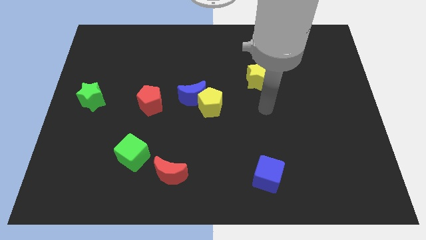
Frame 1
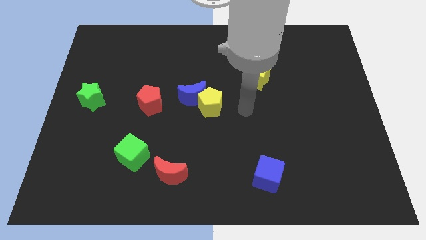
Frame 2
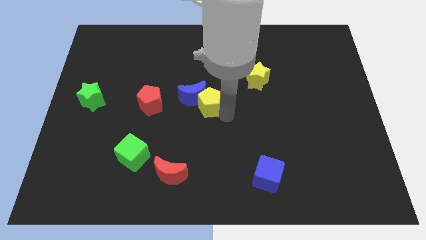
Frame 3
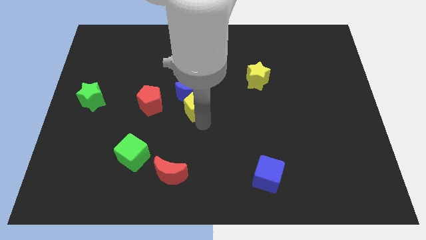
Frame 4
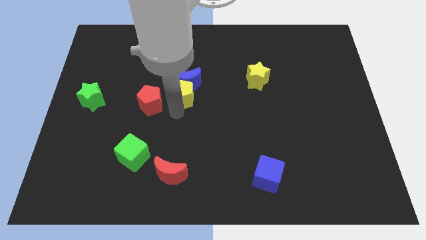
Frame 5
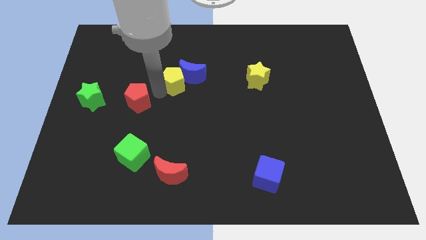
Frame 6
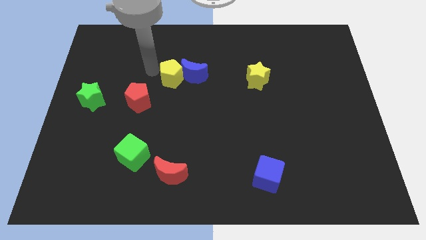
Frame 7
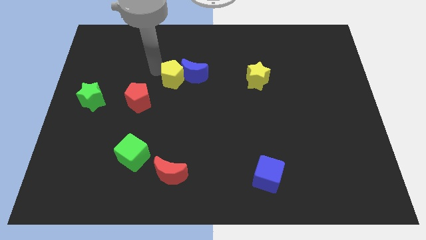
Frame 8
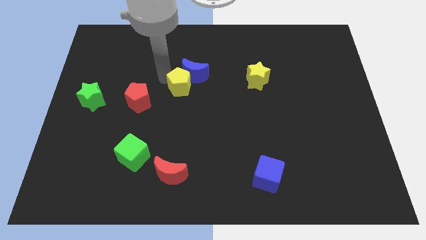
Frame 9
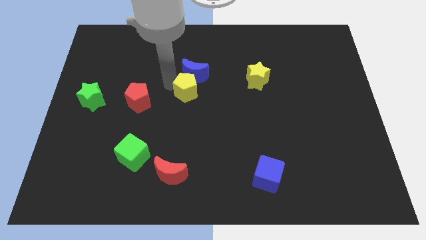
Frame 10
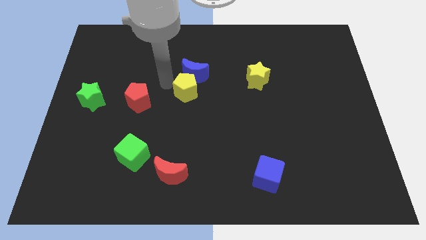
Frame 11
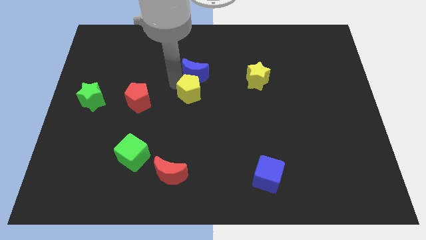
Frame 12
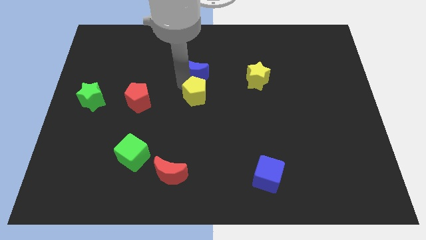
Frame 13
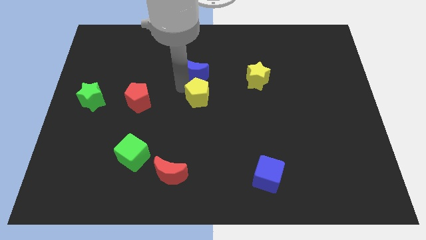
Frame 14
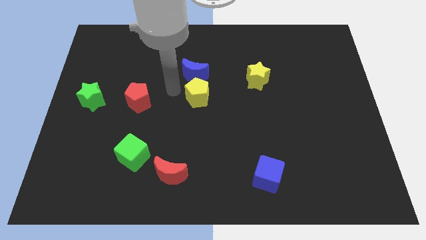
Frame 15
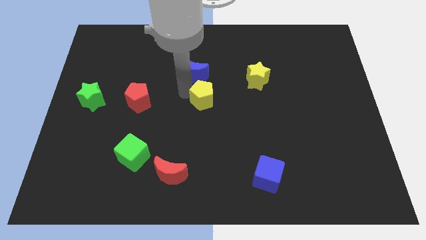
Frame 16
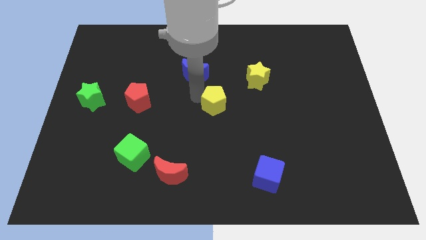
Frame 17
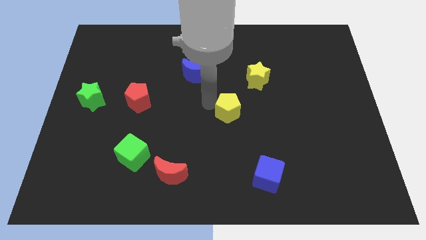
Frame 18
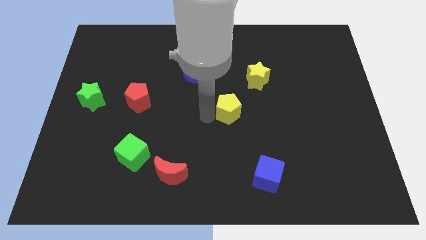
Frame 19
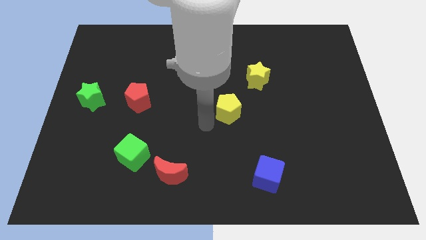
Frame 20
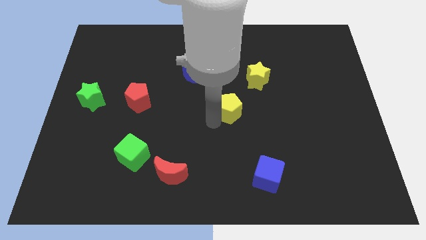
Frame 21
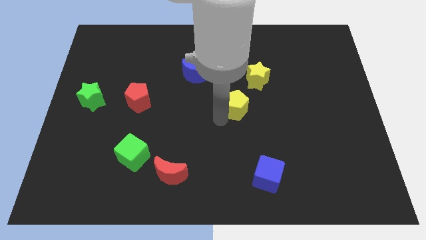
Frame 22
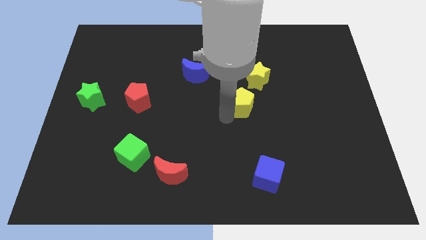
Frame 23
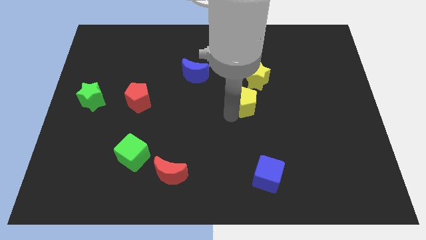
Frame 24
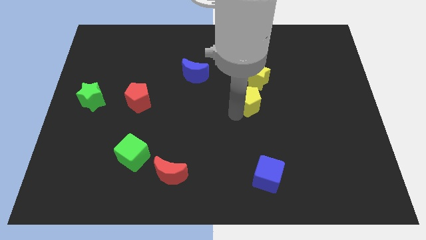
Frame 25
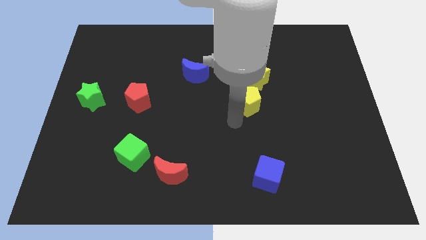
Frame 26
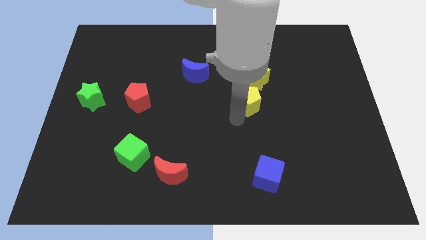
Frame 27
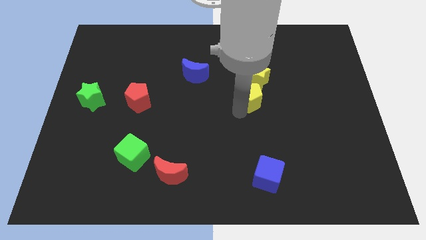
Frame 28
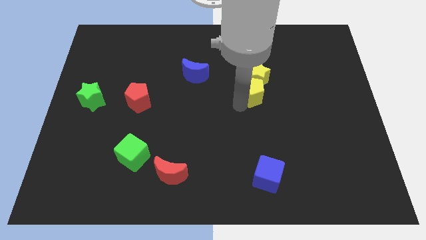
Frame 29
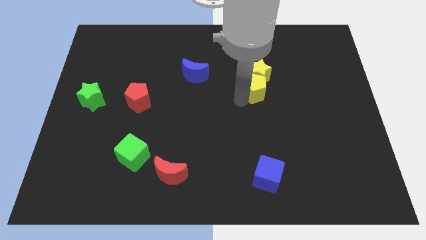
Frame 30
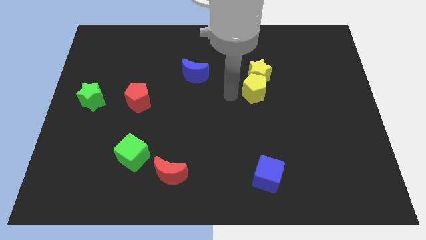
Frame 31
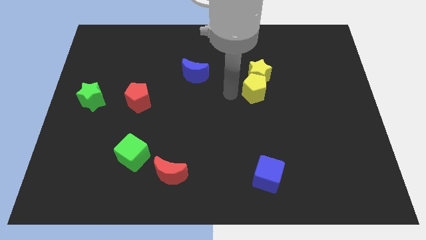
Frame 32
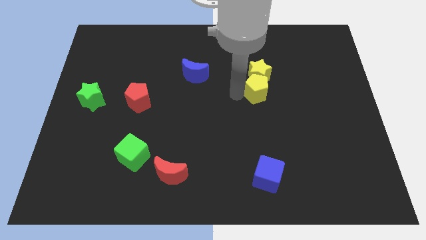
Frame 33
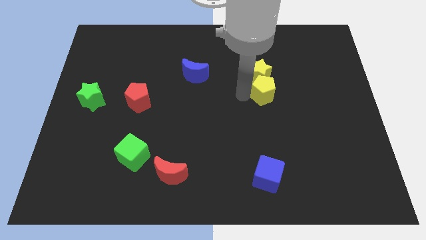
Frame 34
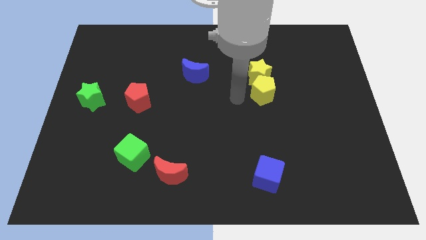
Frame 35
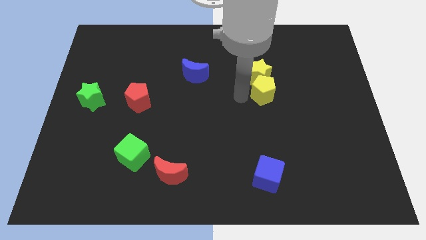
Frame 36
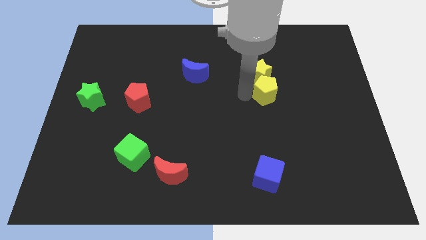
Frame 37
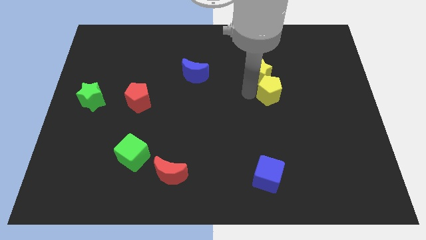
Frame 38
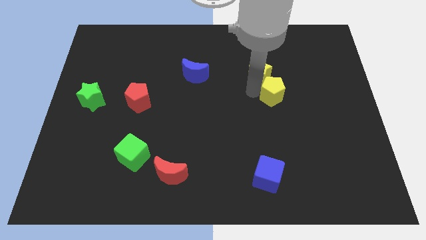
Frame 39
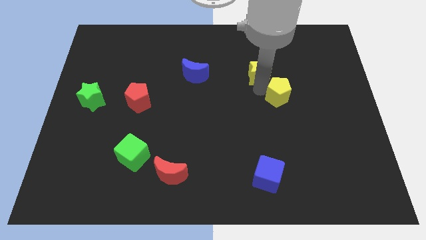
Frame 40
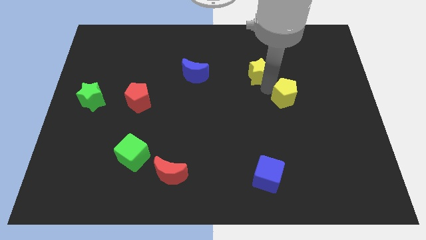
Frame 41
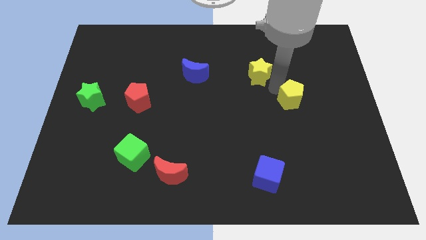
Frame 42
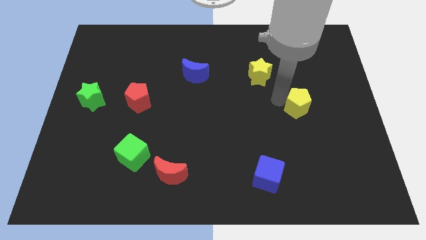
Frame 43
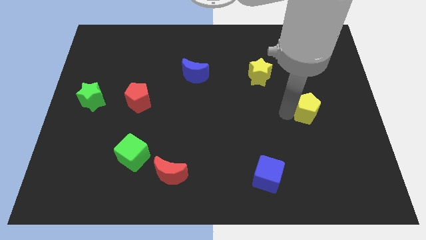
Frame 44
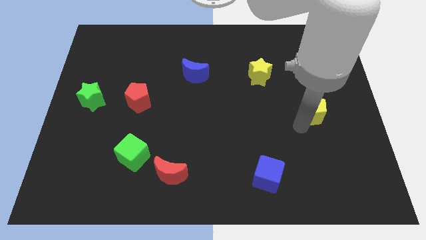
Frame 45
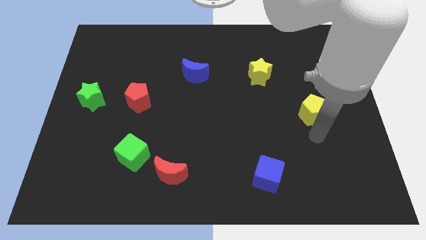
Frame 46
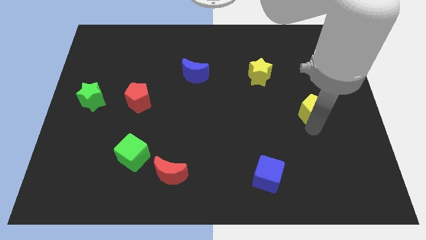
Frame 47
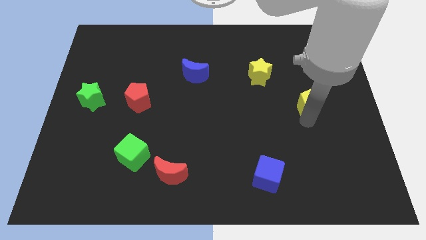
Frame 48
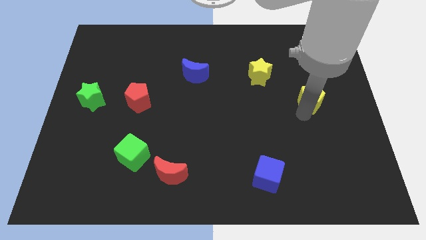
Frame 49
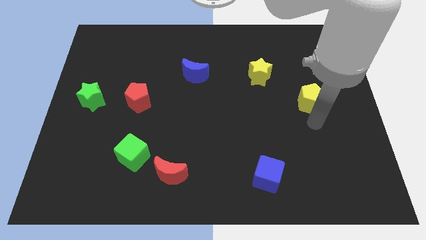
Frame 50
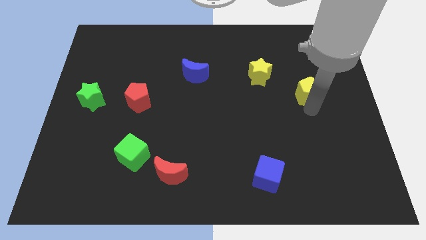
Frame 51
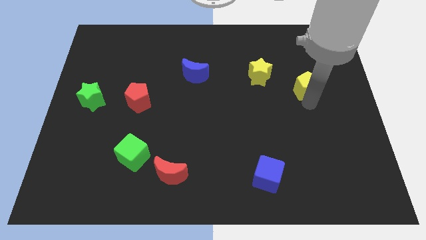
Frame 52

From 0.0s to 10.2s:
push the yellow pentagon to the right side of the yellow star

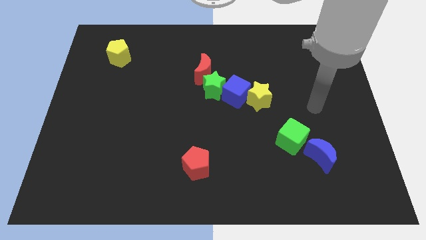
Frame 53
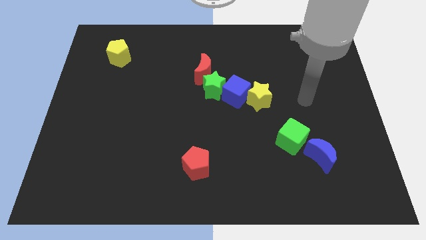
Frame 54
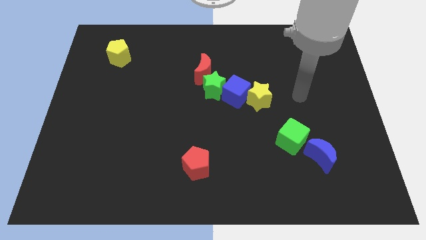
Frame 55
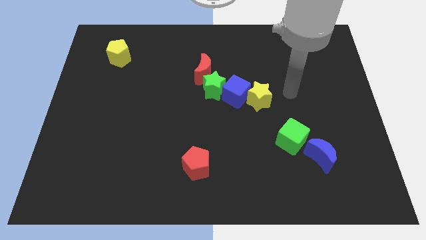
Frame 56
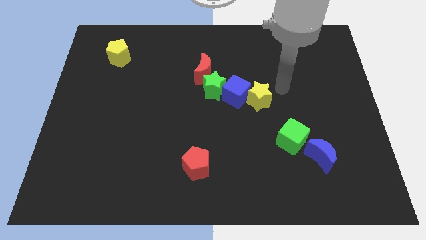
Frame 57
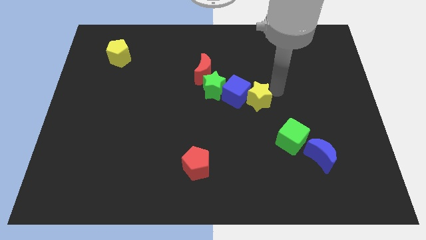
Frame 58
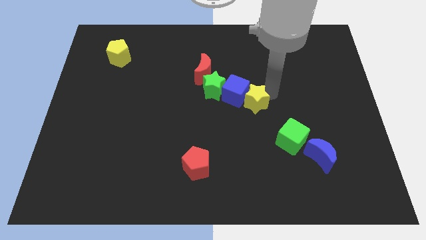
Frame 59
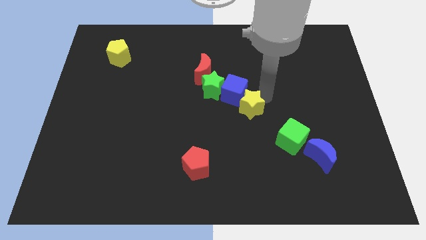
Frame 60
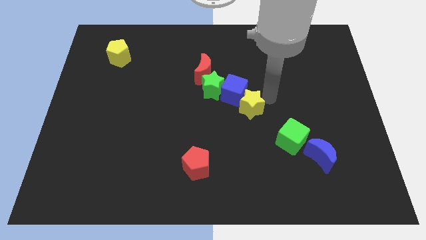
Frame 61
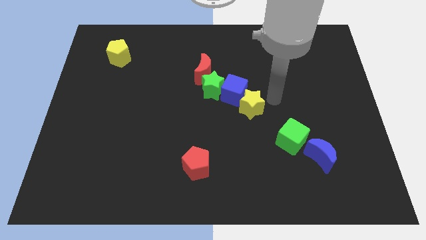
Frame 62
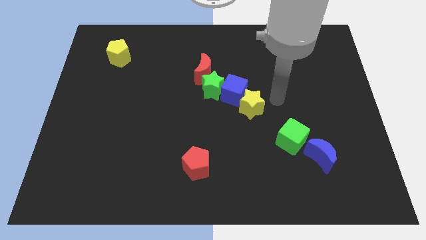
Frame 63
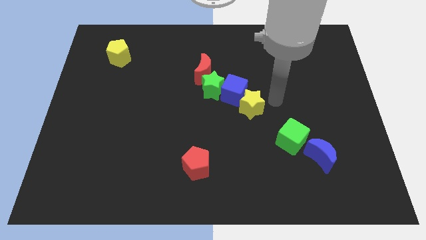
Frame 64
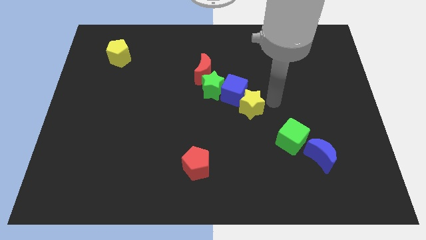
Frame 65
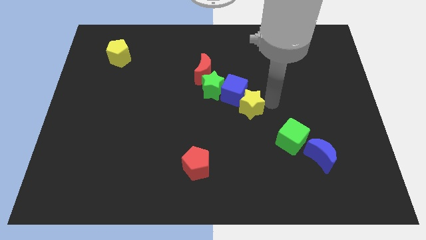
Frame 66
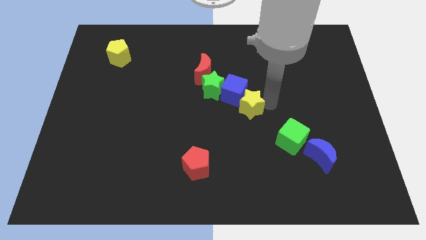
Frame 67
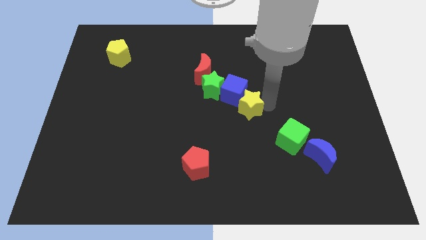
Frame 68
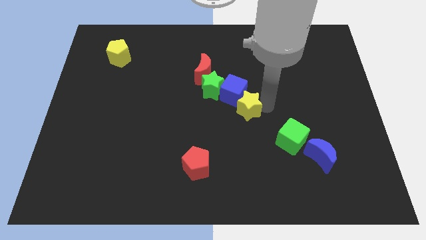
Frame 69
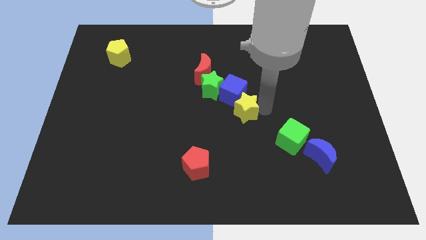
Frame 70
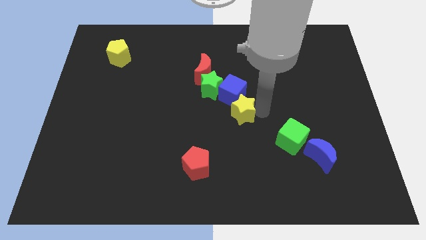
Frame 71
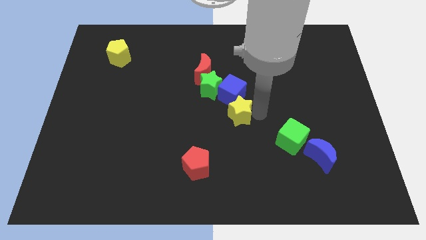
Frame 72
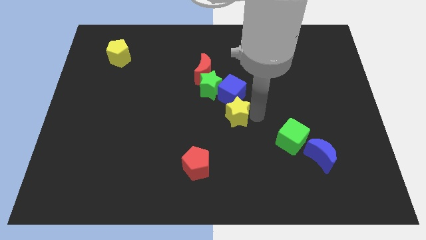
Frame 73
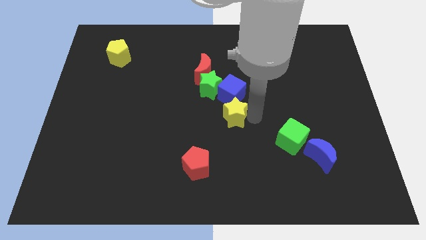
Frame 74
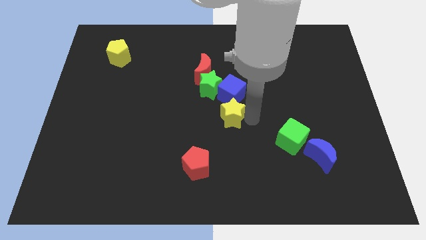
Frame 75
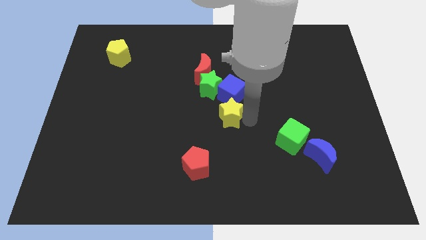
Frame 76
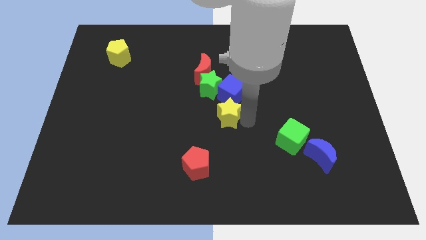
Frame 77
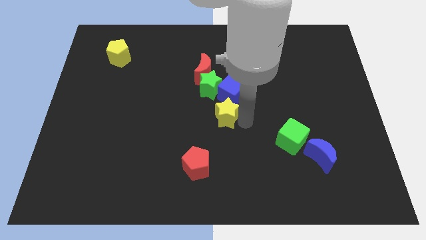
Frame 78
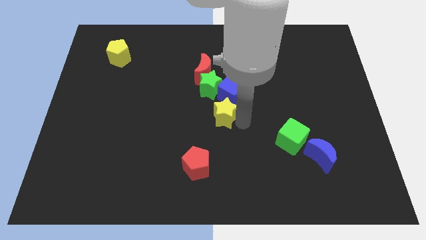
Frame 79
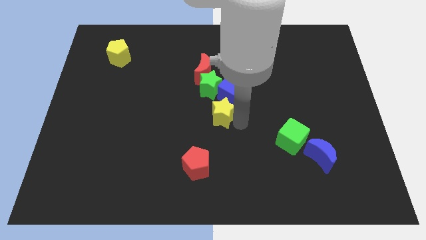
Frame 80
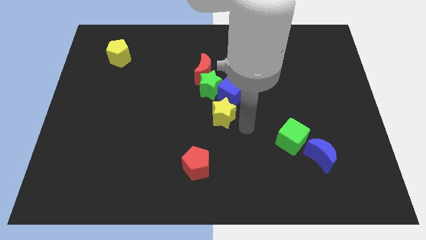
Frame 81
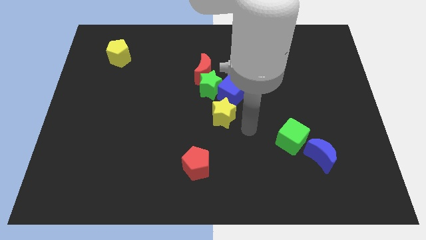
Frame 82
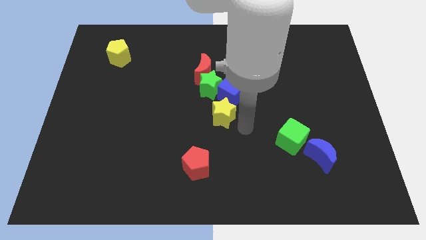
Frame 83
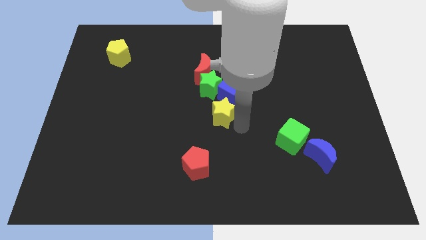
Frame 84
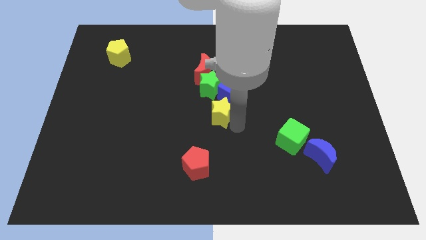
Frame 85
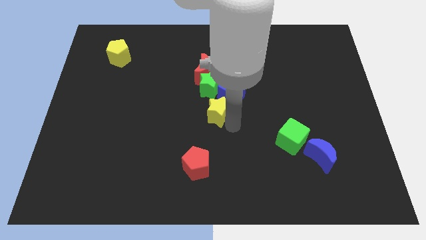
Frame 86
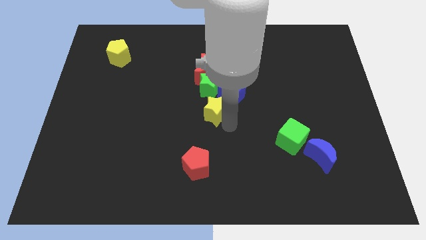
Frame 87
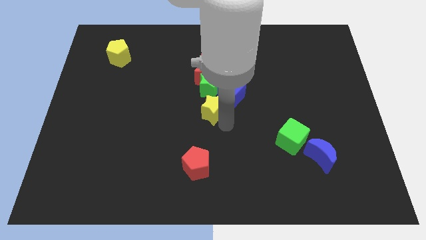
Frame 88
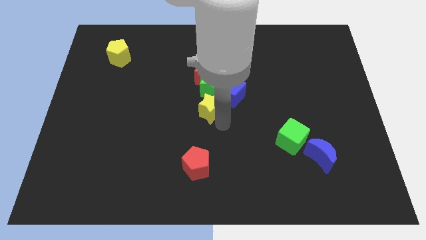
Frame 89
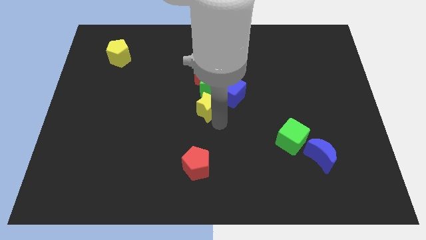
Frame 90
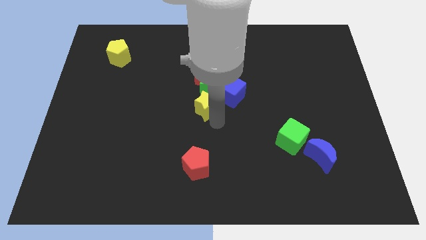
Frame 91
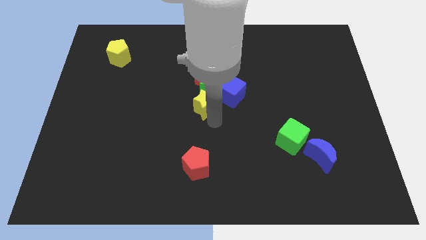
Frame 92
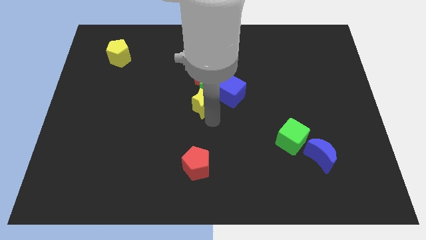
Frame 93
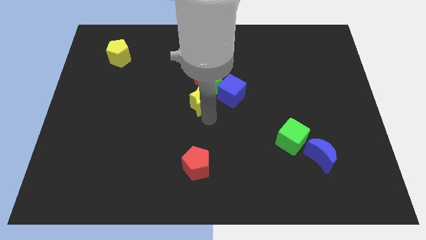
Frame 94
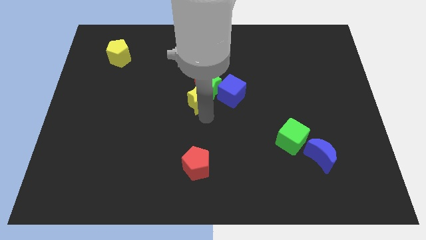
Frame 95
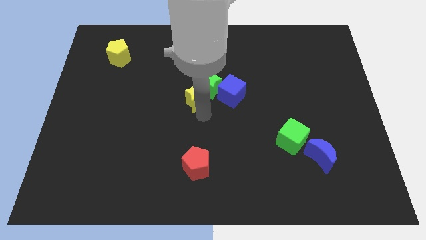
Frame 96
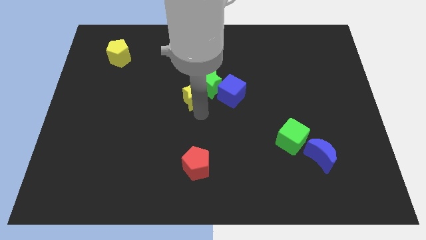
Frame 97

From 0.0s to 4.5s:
move the yellow star to the bottom left of the red moon
